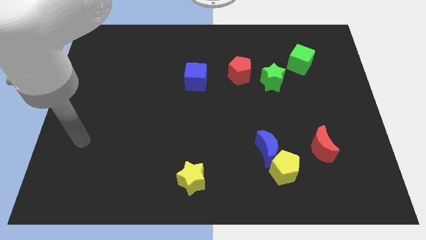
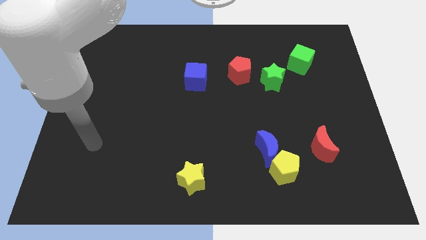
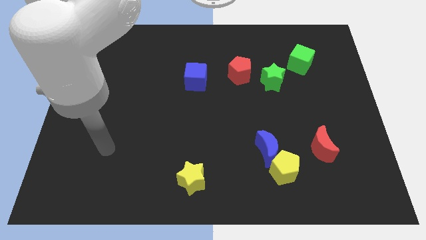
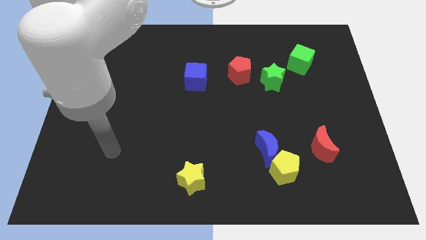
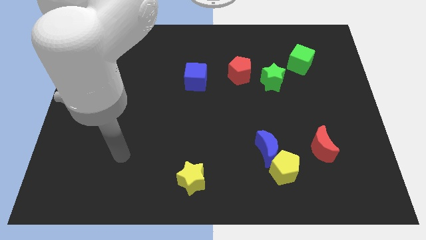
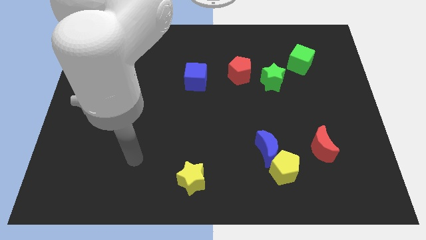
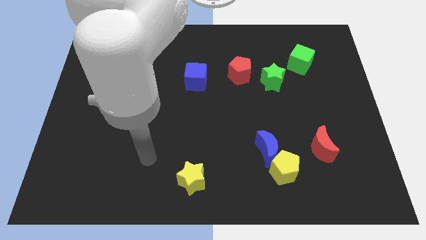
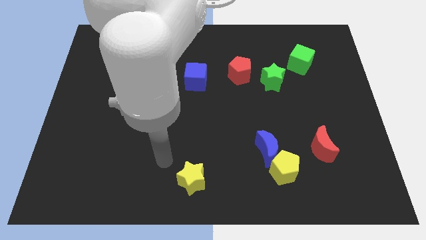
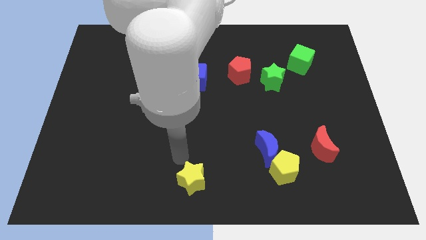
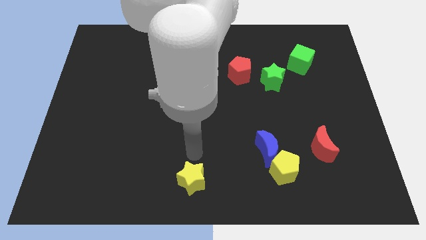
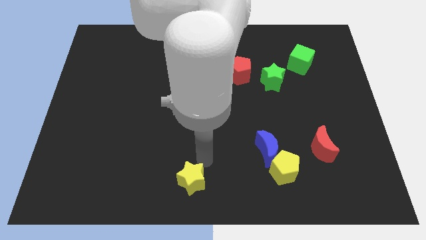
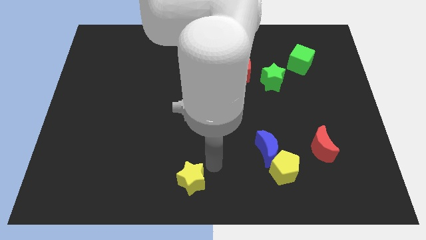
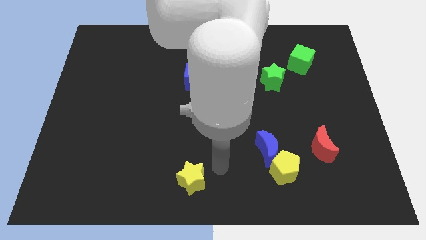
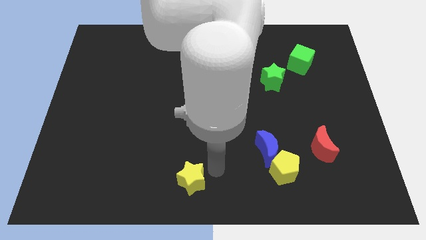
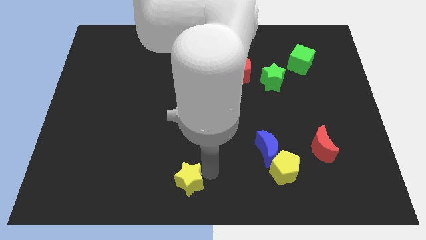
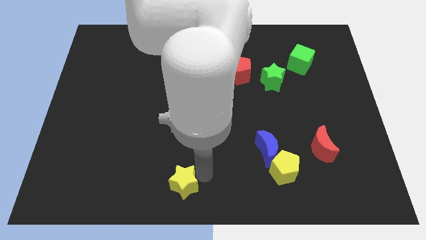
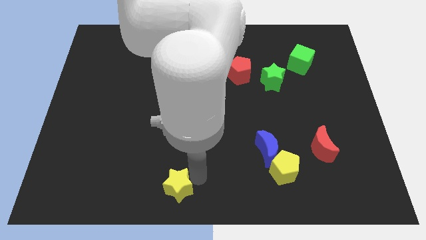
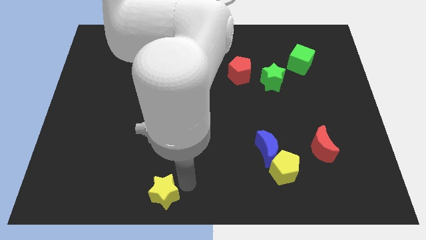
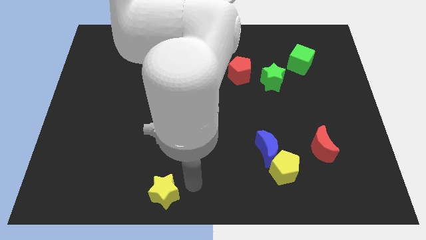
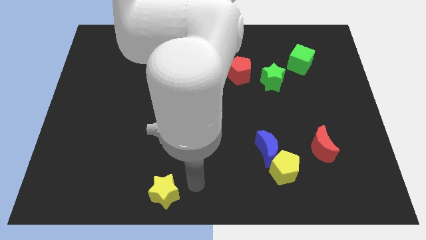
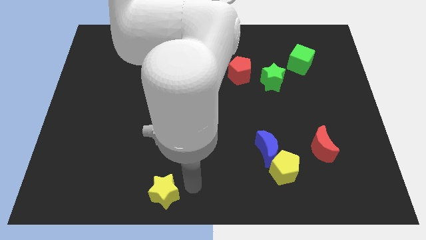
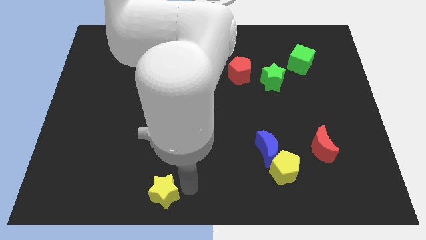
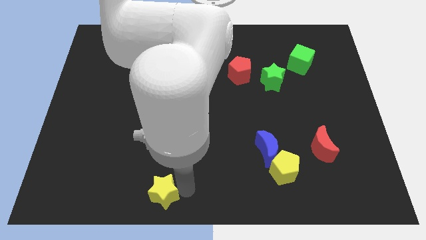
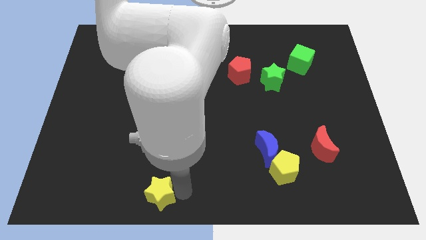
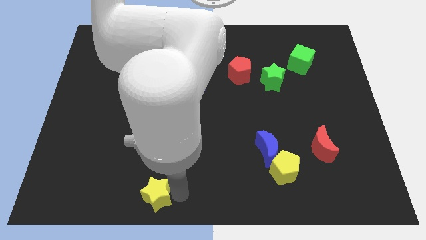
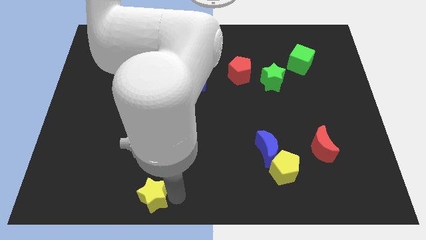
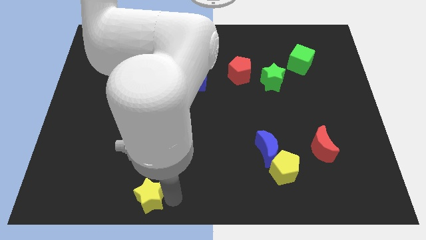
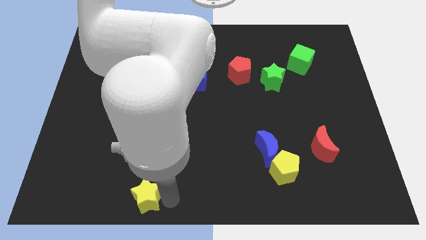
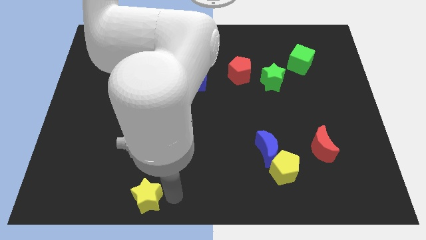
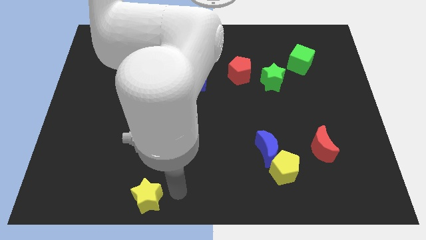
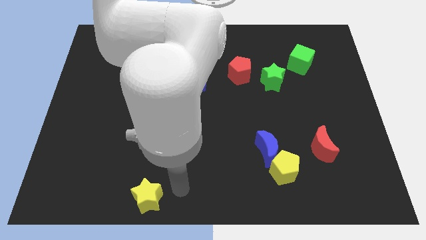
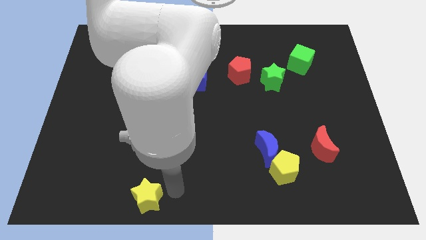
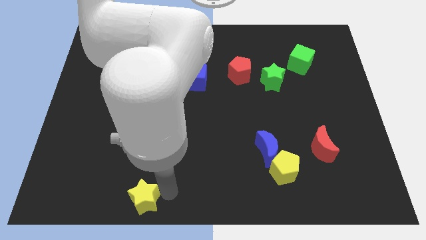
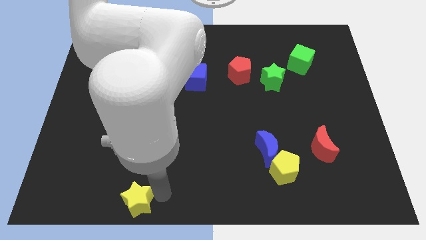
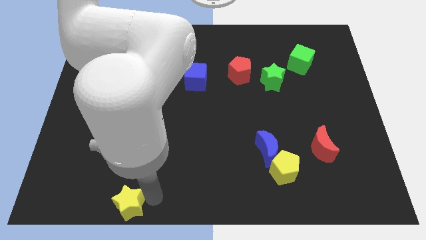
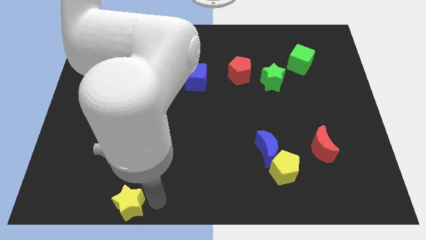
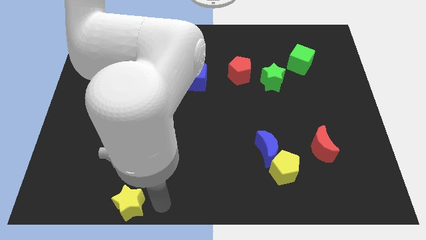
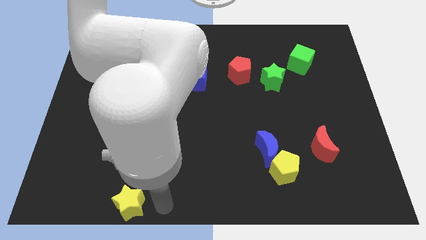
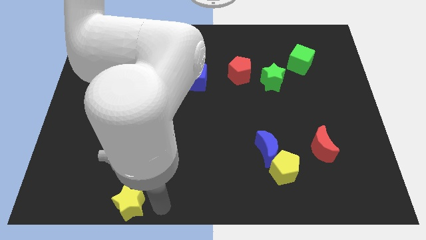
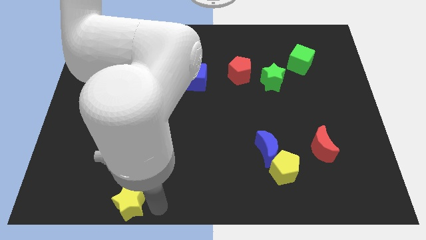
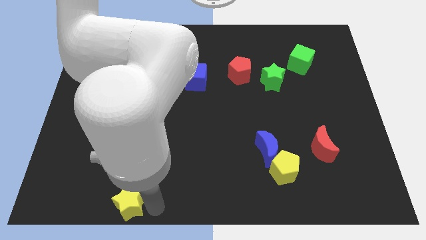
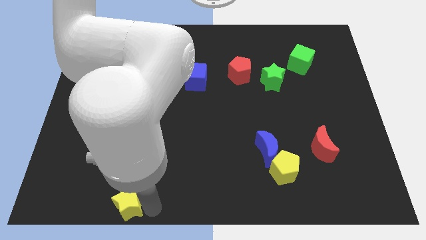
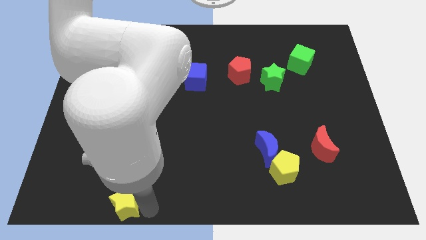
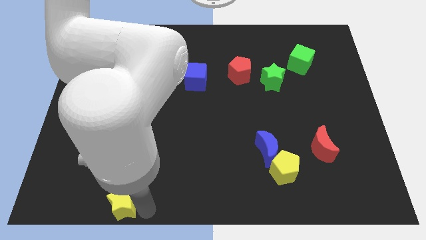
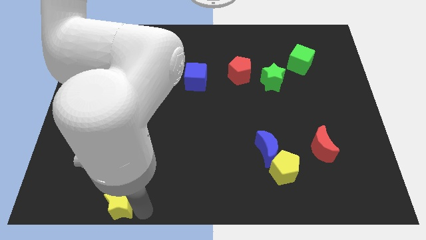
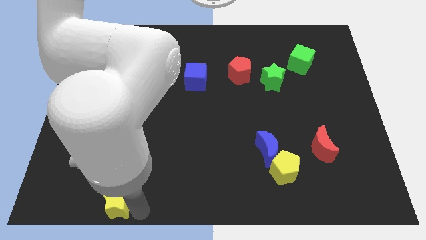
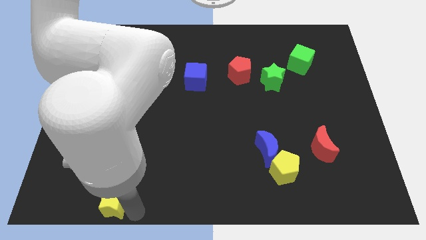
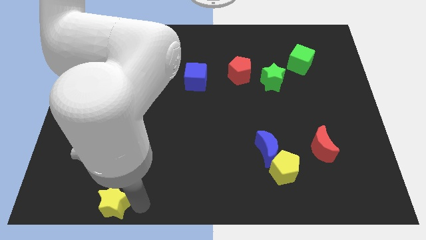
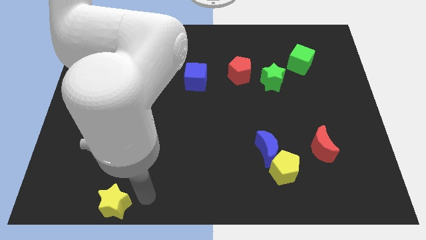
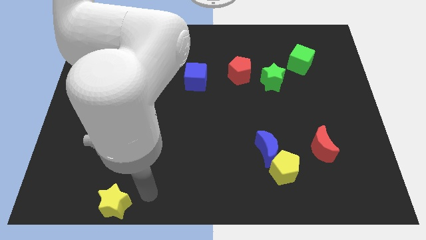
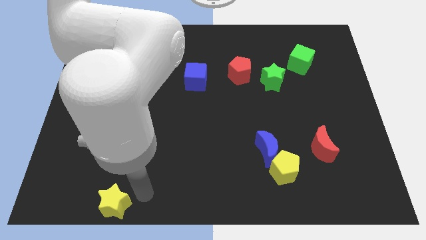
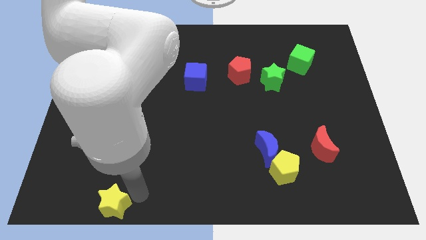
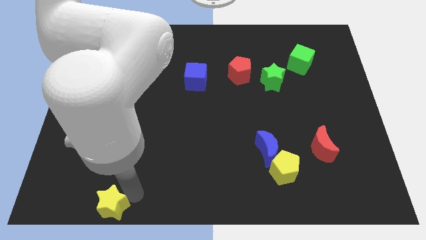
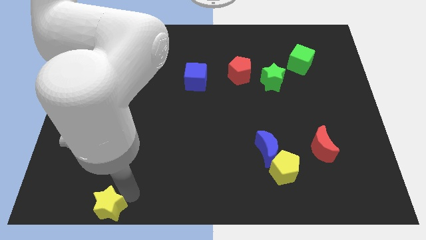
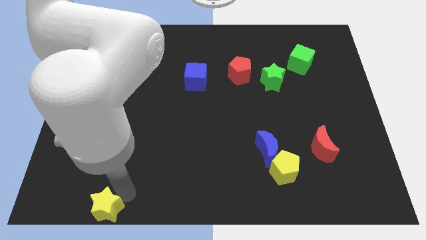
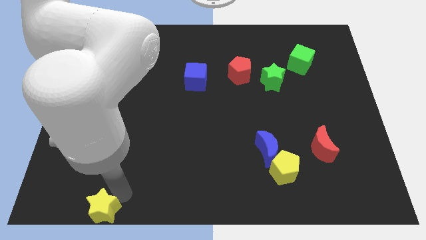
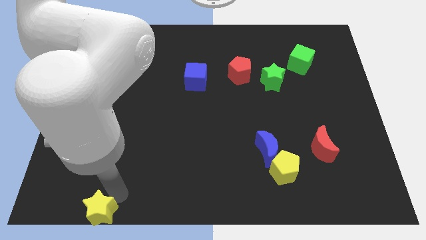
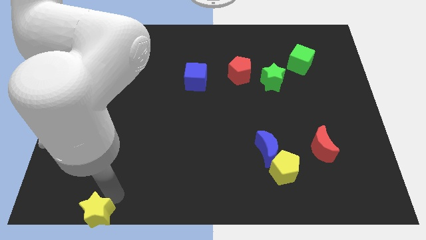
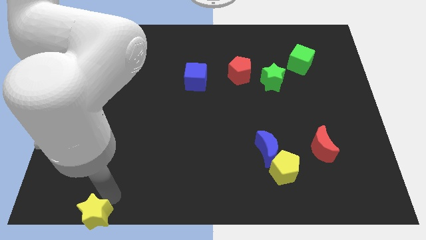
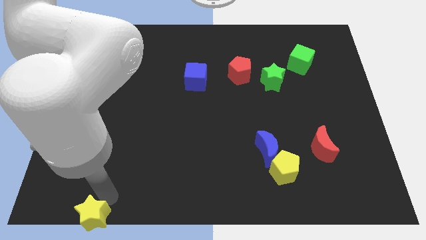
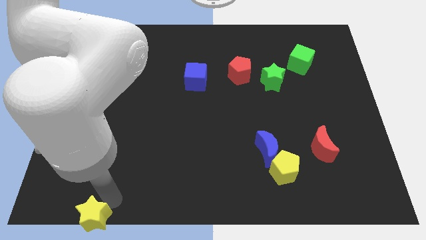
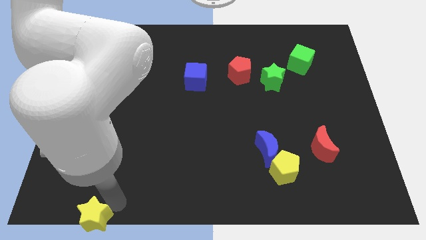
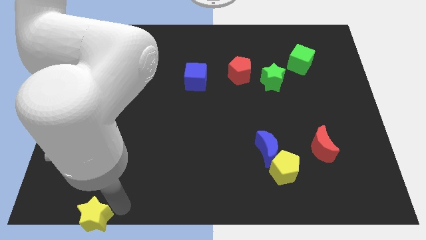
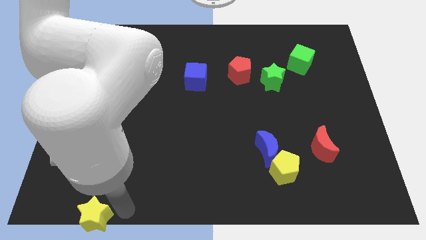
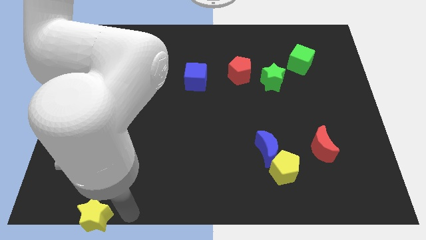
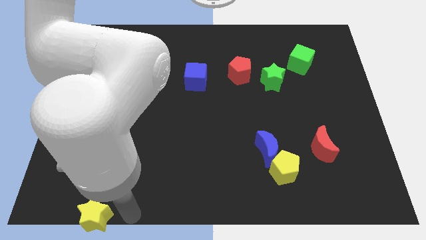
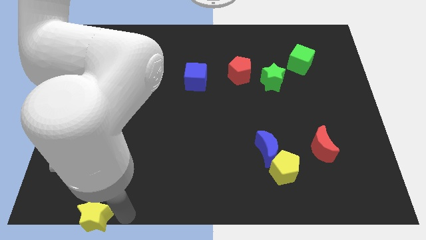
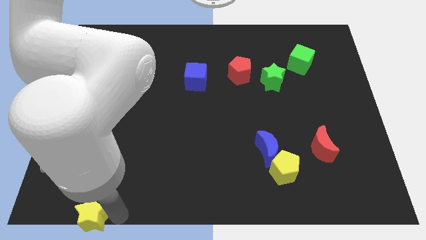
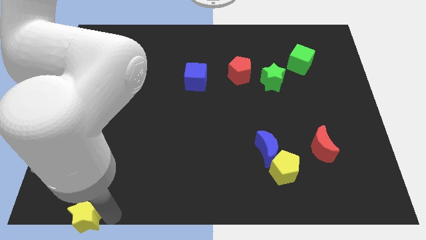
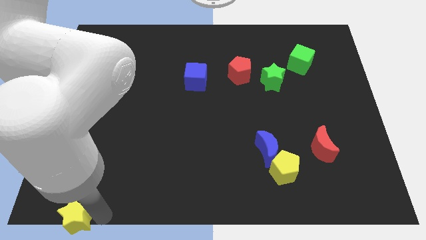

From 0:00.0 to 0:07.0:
put the yellow star to the lower left corner

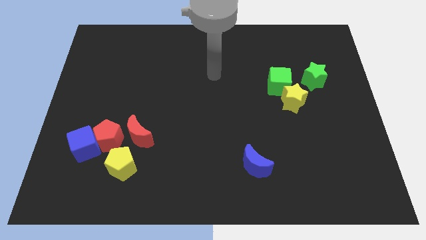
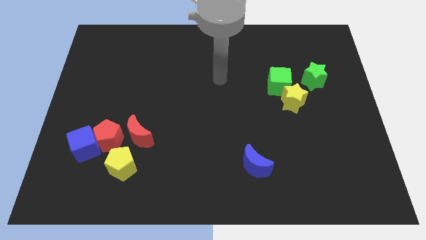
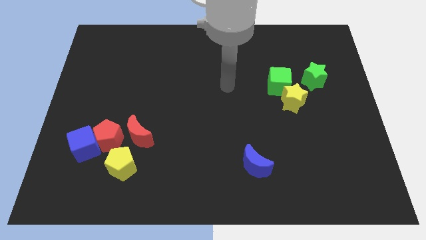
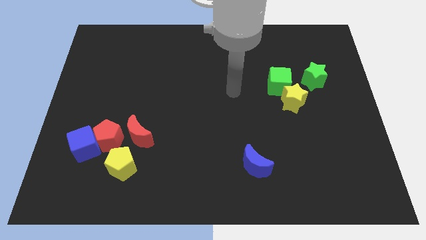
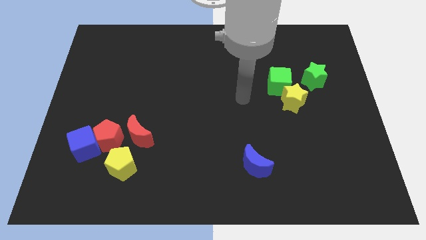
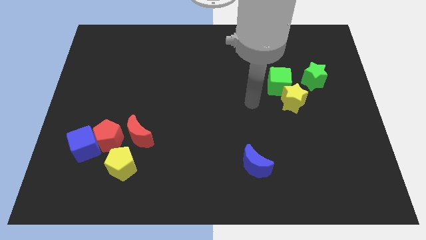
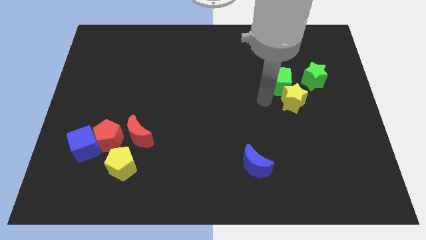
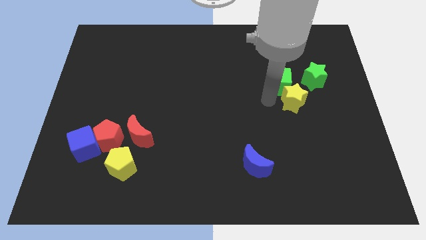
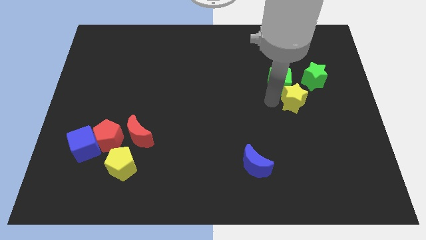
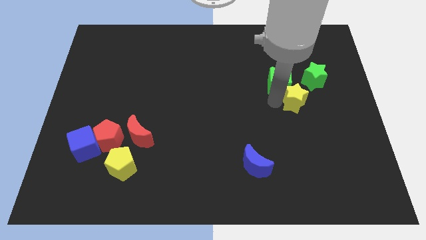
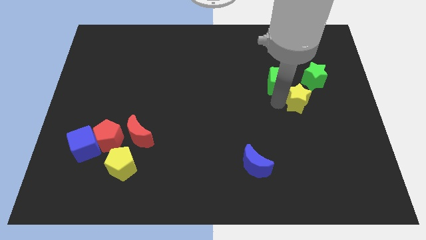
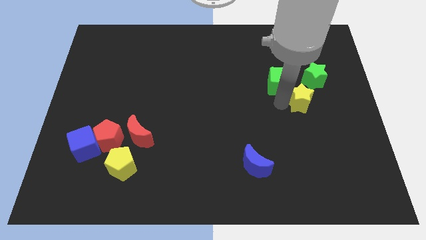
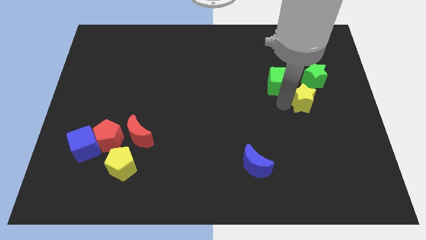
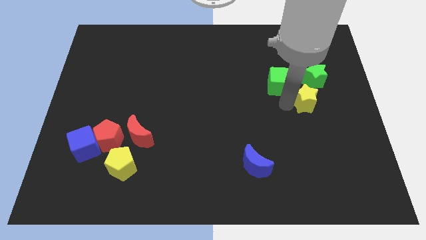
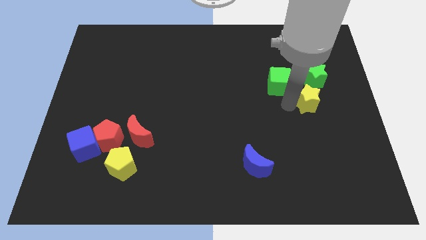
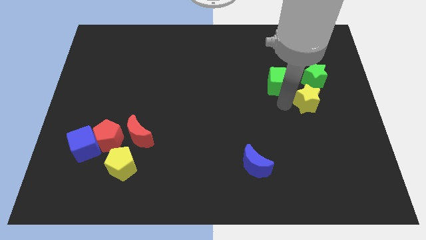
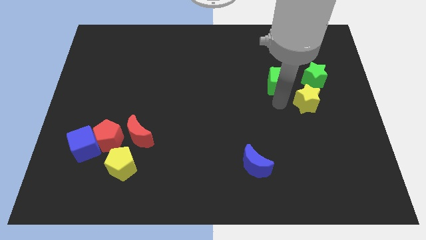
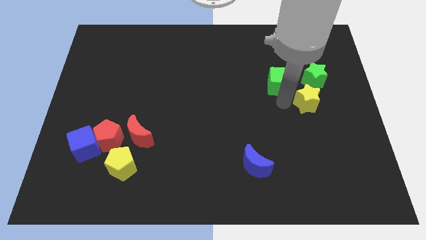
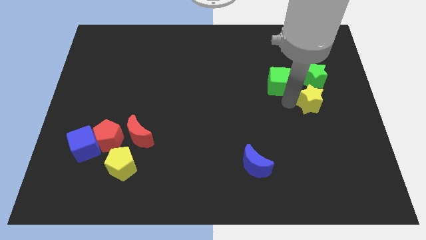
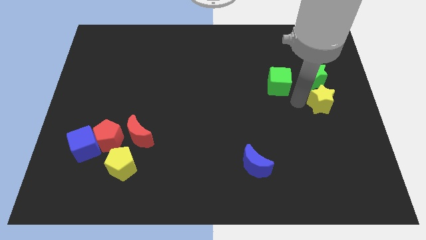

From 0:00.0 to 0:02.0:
push the yellow star to the center right
